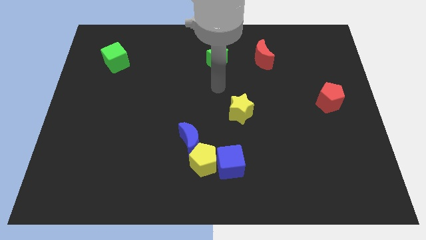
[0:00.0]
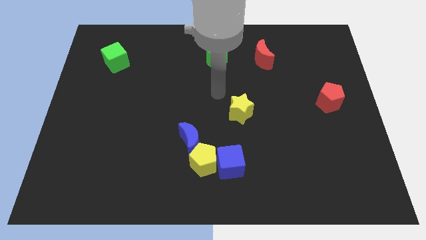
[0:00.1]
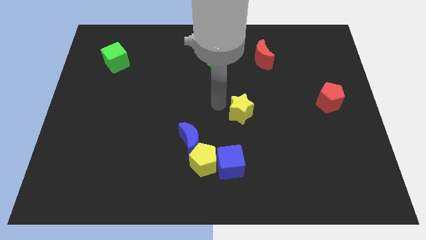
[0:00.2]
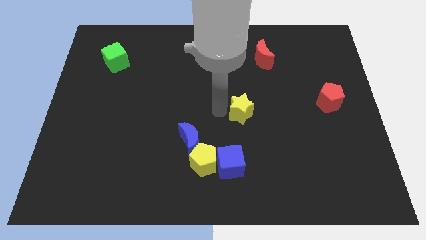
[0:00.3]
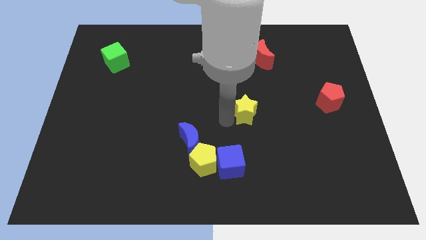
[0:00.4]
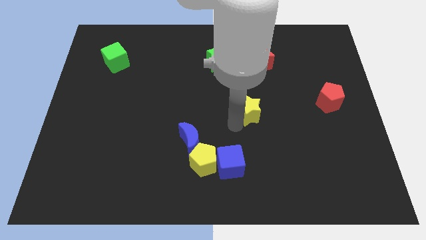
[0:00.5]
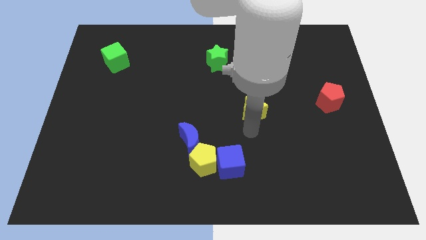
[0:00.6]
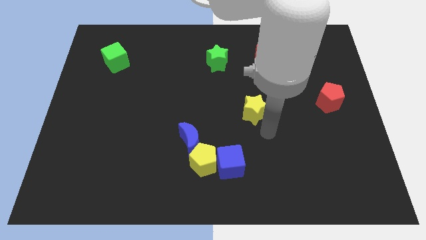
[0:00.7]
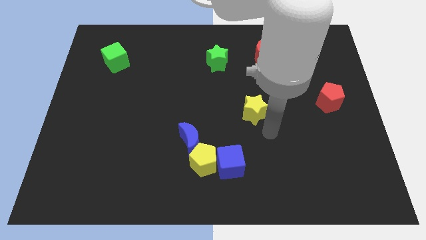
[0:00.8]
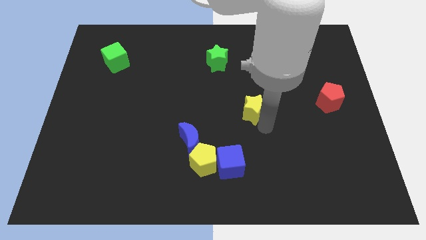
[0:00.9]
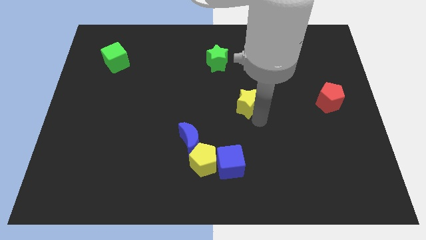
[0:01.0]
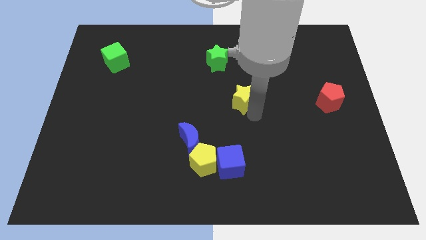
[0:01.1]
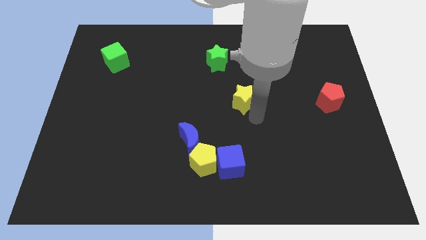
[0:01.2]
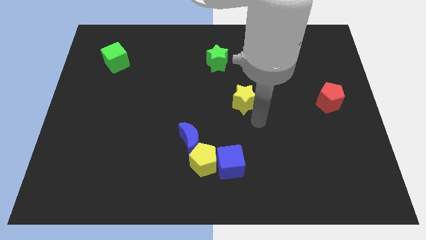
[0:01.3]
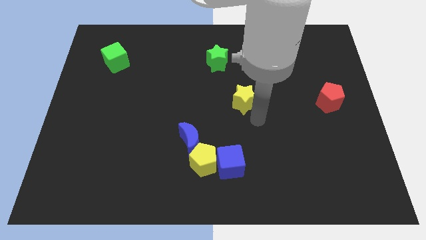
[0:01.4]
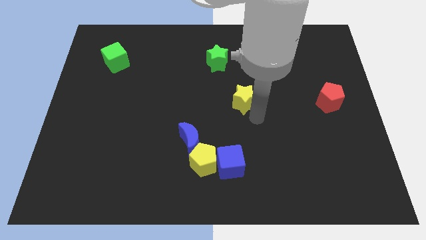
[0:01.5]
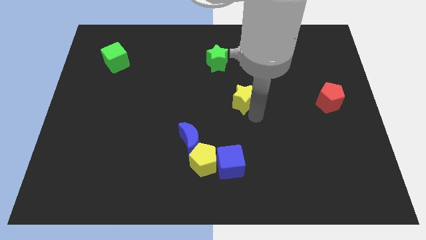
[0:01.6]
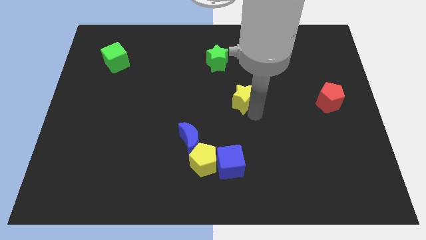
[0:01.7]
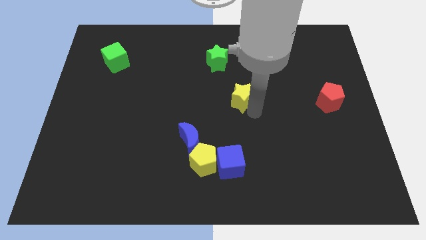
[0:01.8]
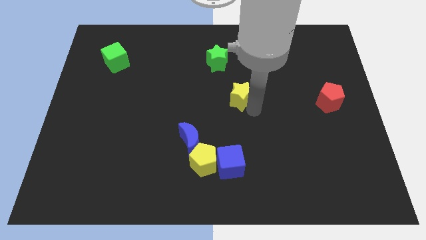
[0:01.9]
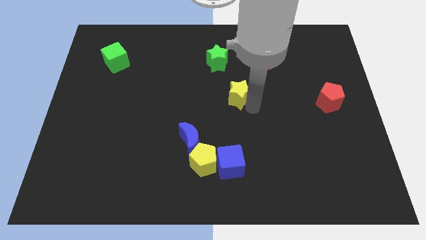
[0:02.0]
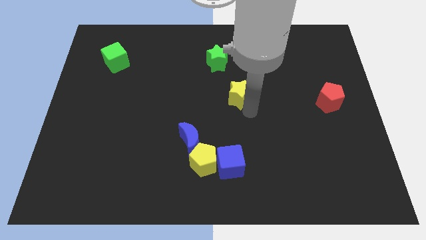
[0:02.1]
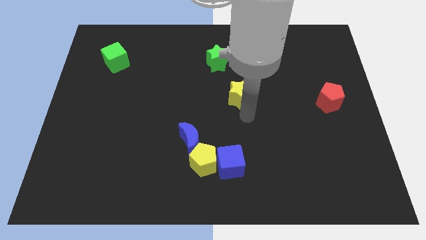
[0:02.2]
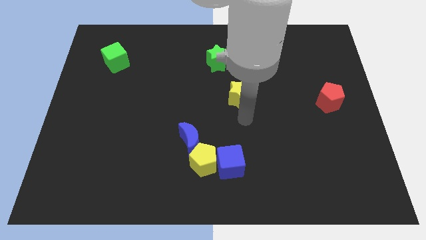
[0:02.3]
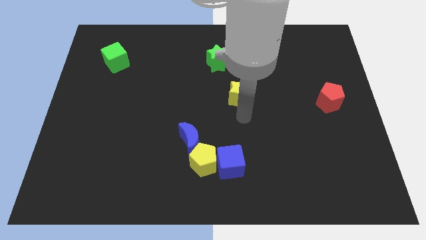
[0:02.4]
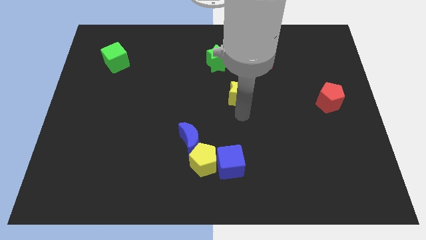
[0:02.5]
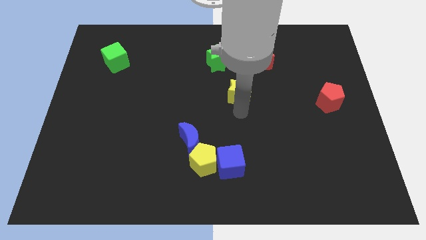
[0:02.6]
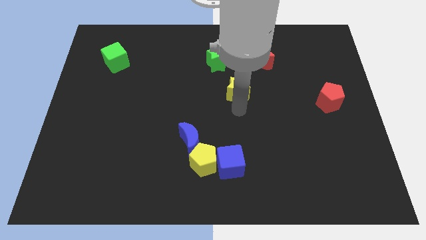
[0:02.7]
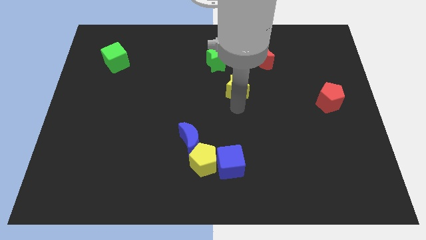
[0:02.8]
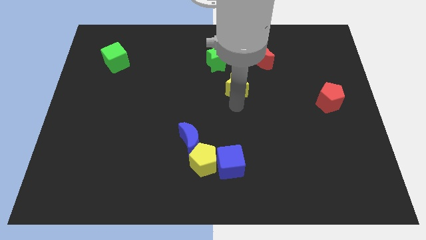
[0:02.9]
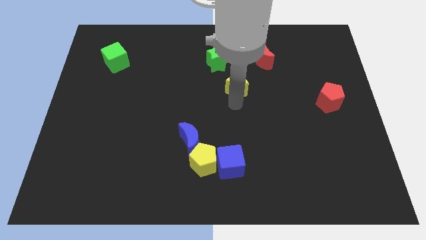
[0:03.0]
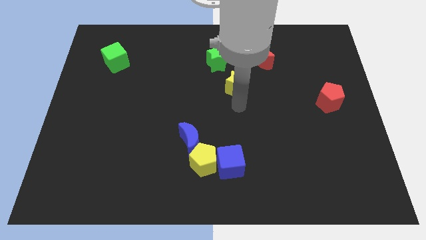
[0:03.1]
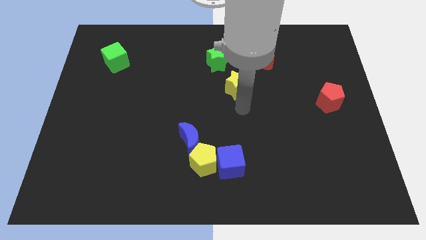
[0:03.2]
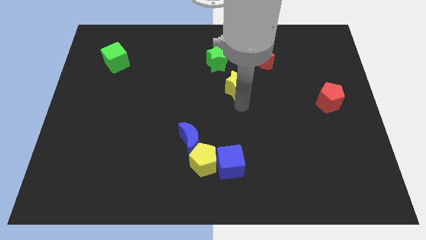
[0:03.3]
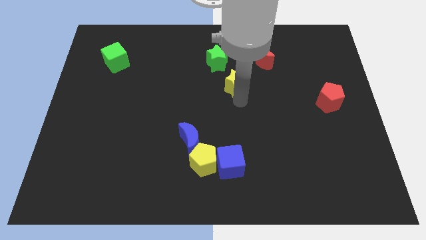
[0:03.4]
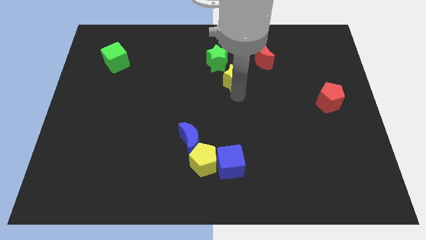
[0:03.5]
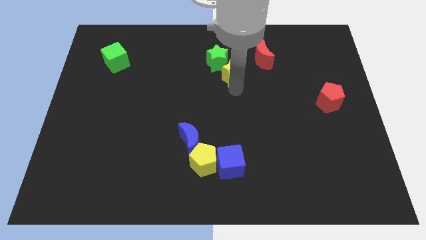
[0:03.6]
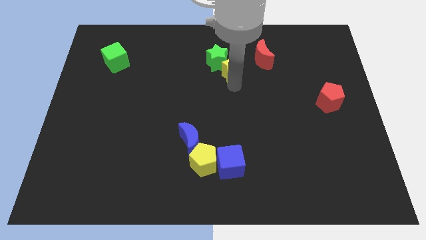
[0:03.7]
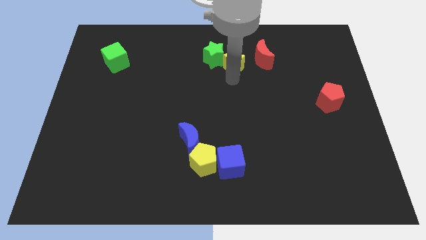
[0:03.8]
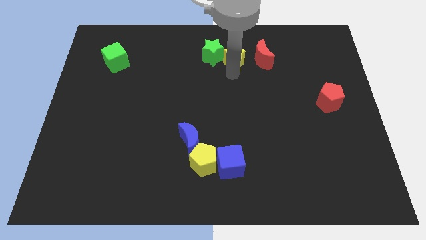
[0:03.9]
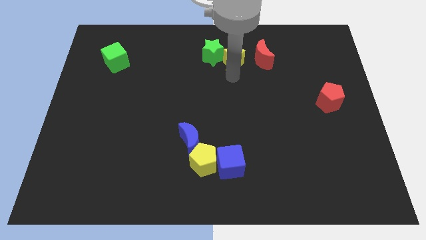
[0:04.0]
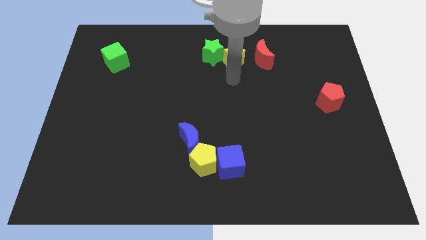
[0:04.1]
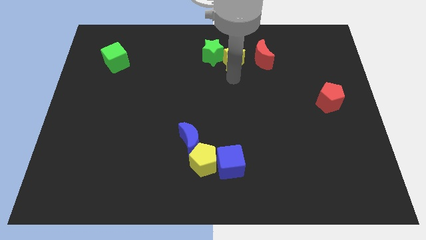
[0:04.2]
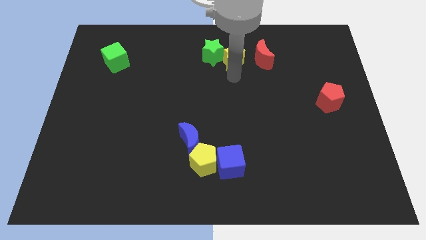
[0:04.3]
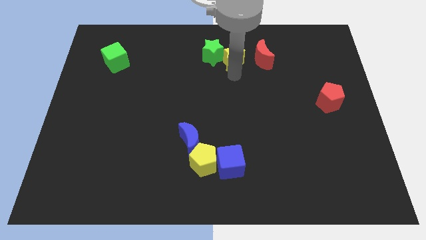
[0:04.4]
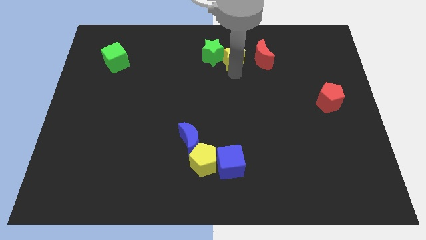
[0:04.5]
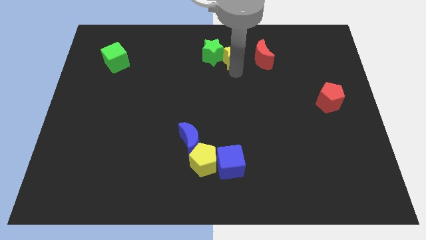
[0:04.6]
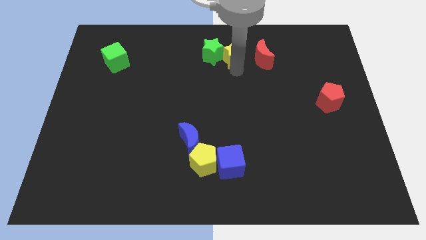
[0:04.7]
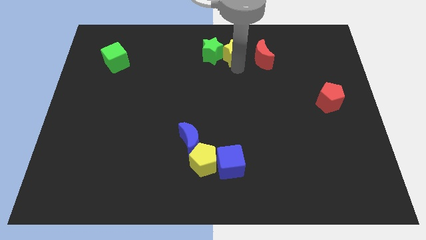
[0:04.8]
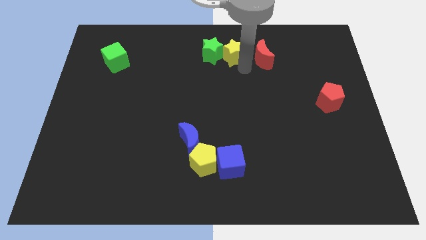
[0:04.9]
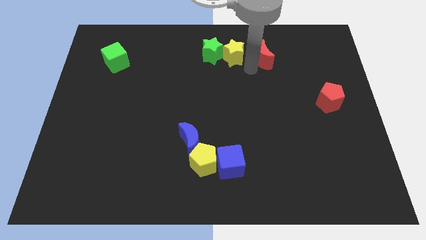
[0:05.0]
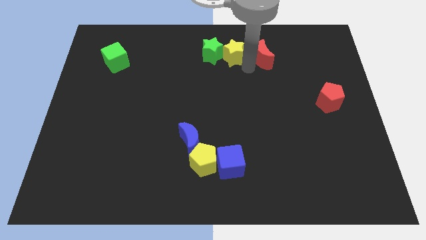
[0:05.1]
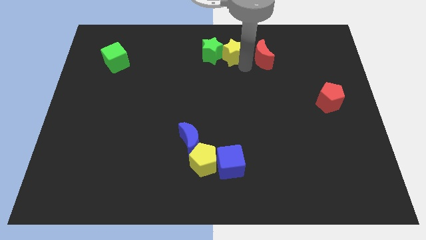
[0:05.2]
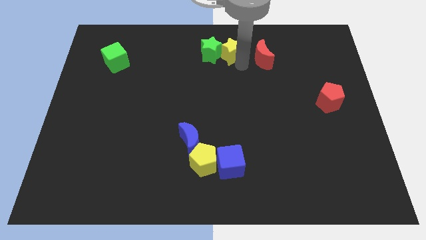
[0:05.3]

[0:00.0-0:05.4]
slide the yellow star to the top

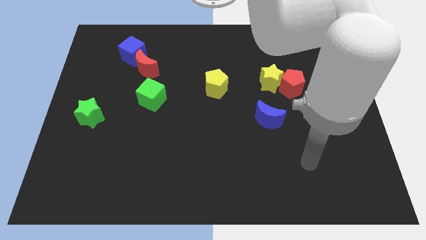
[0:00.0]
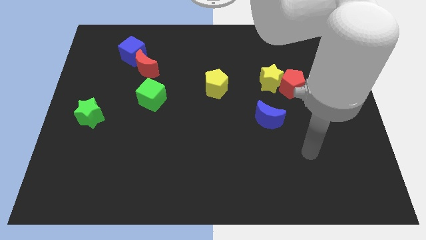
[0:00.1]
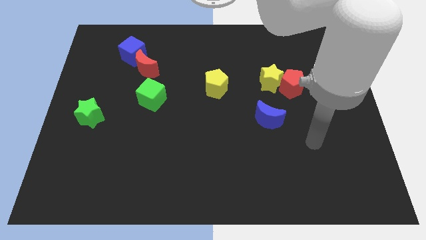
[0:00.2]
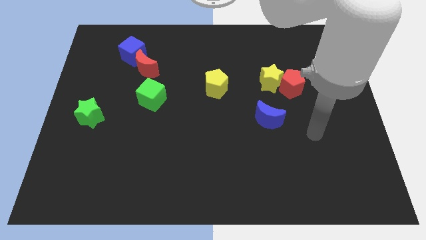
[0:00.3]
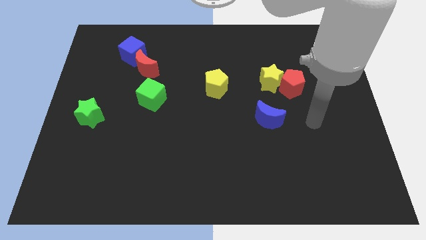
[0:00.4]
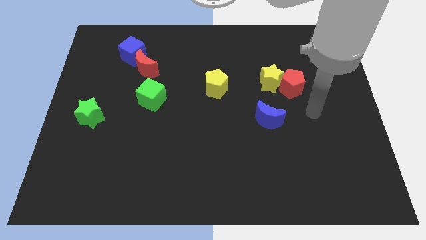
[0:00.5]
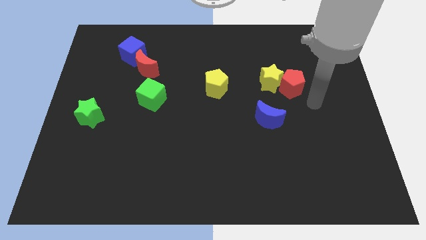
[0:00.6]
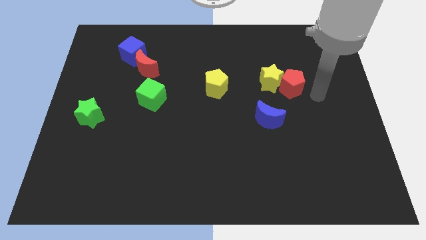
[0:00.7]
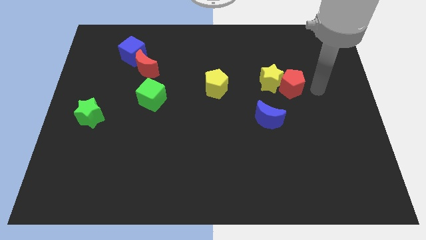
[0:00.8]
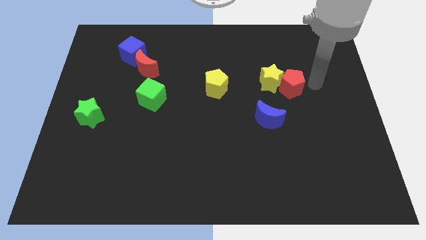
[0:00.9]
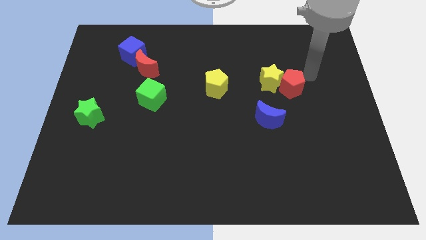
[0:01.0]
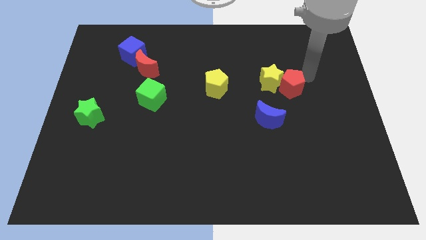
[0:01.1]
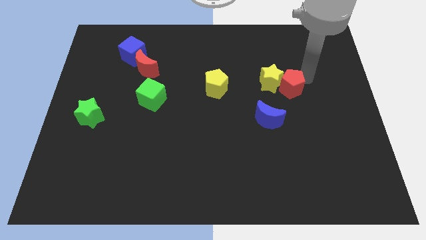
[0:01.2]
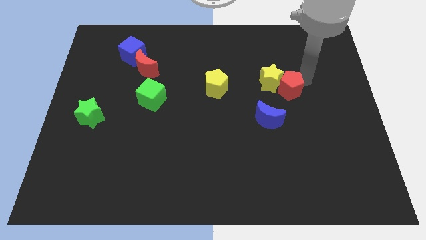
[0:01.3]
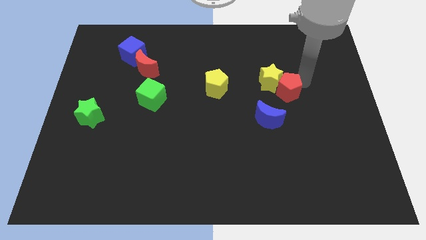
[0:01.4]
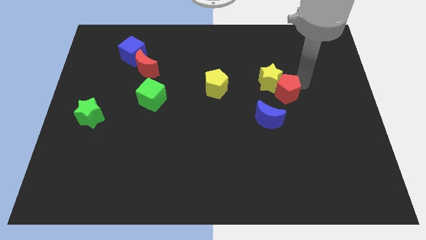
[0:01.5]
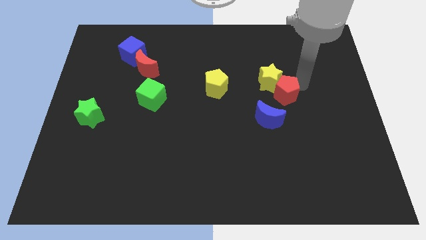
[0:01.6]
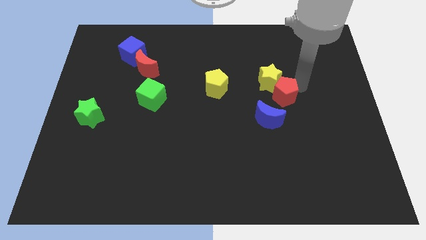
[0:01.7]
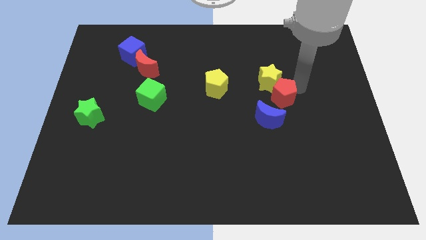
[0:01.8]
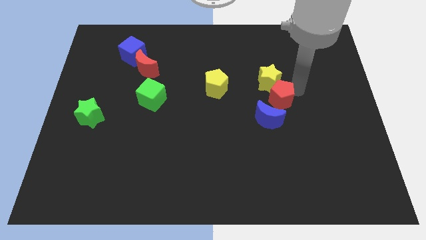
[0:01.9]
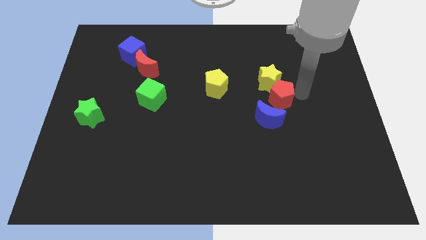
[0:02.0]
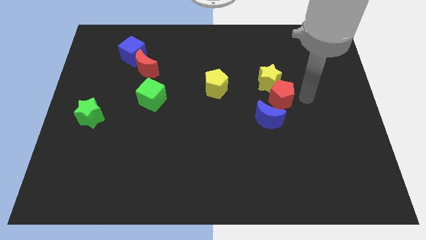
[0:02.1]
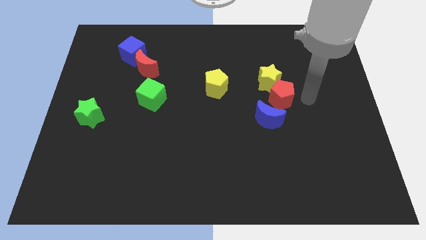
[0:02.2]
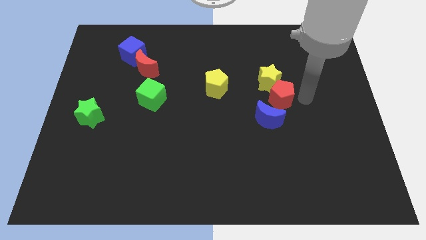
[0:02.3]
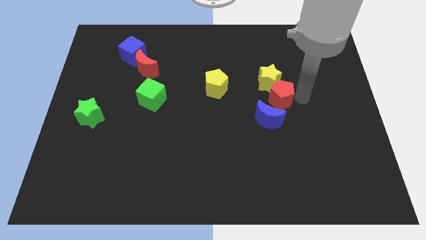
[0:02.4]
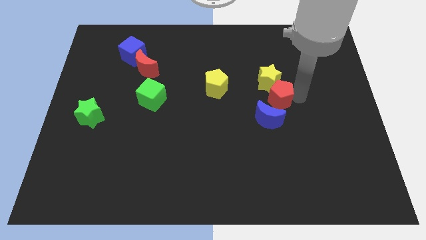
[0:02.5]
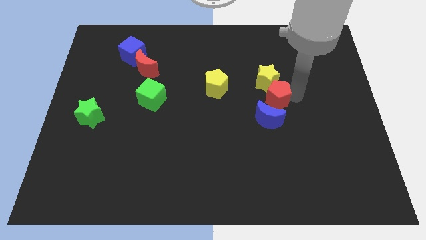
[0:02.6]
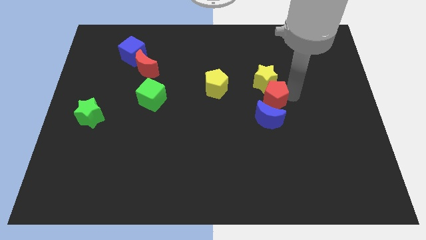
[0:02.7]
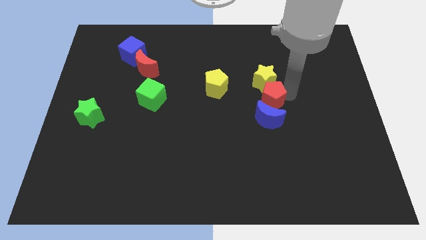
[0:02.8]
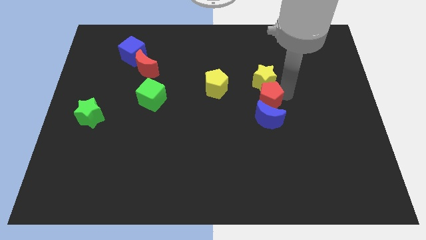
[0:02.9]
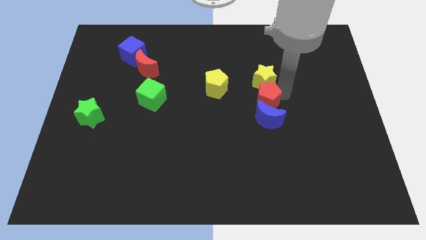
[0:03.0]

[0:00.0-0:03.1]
push the red pentagon to the center
